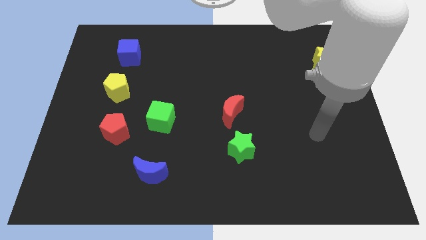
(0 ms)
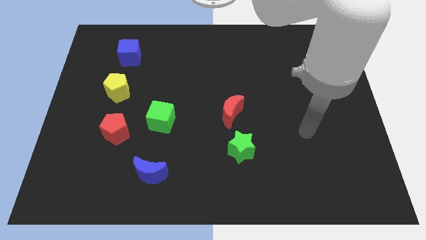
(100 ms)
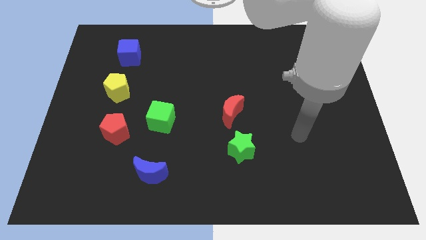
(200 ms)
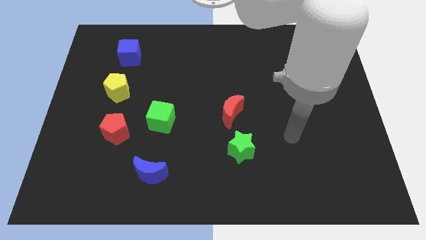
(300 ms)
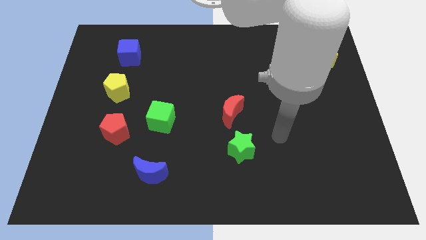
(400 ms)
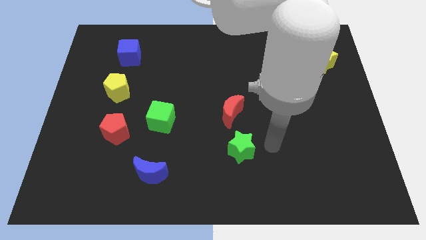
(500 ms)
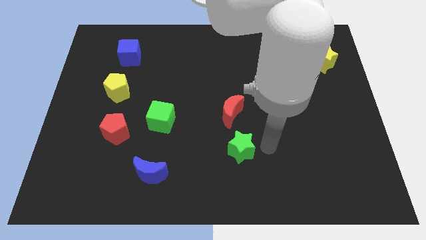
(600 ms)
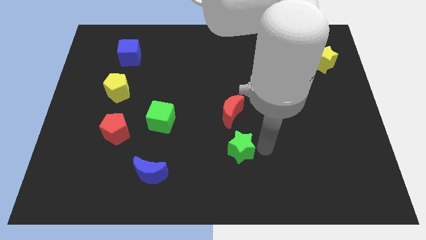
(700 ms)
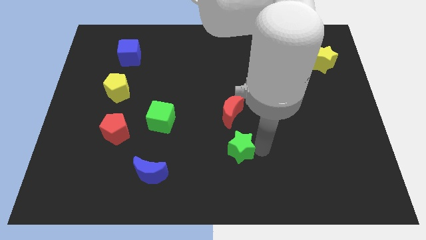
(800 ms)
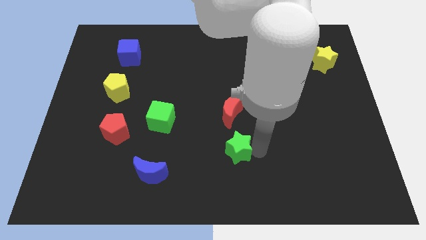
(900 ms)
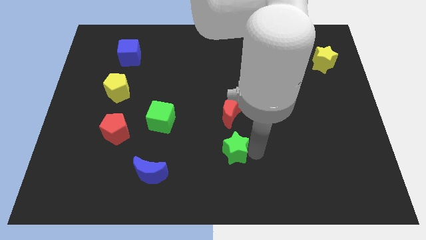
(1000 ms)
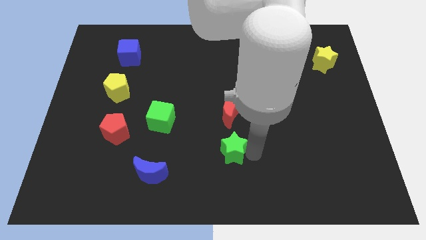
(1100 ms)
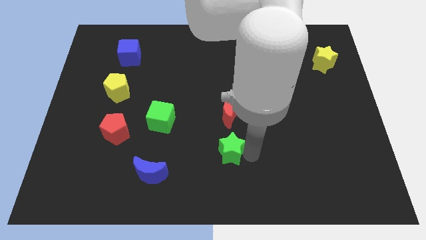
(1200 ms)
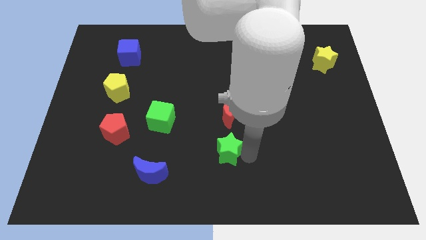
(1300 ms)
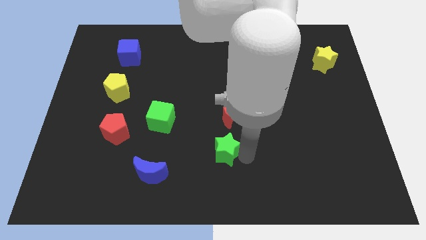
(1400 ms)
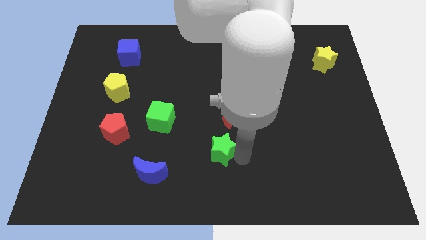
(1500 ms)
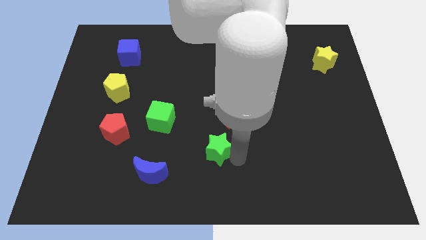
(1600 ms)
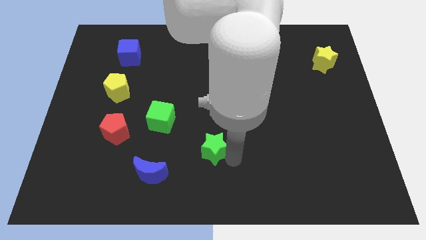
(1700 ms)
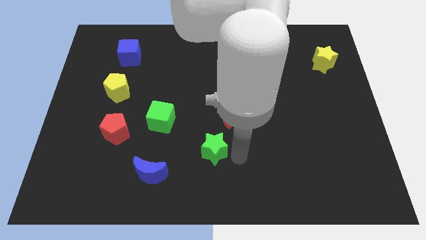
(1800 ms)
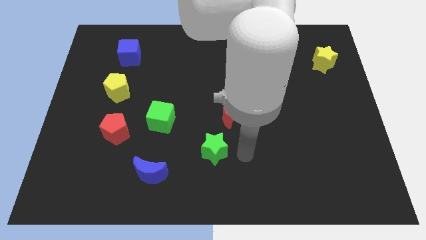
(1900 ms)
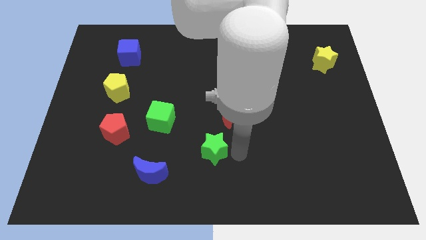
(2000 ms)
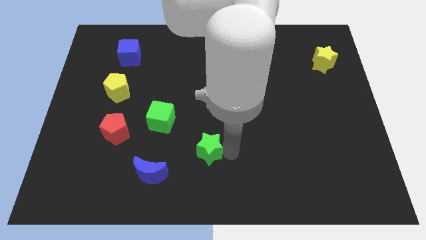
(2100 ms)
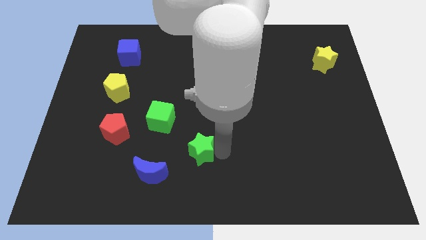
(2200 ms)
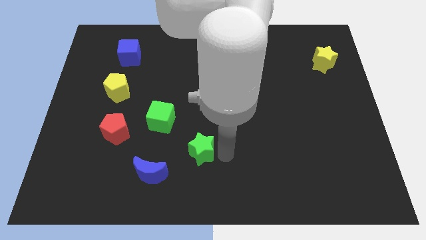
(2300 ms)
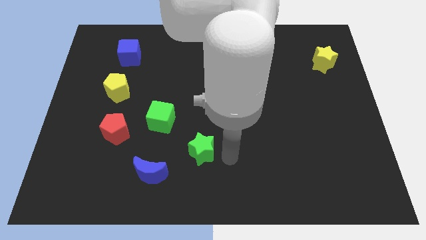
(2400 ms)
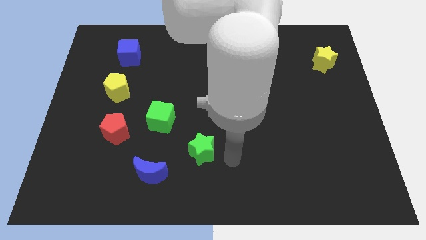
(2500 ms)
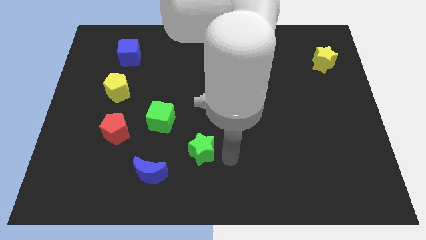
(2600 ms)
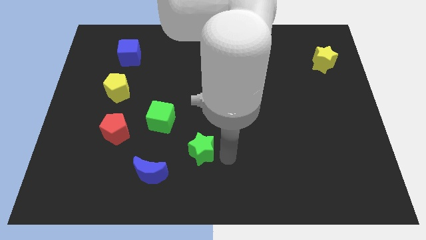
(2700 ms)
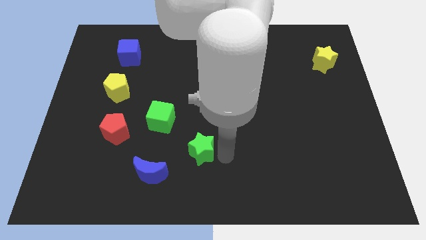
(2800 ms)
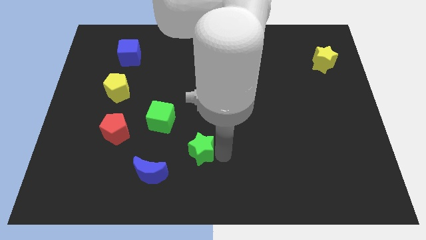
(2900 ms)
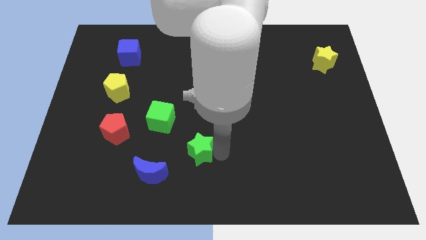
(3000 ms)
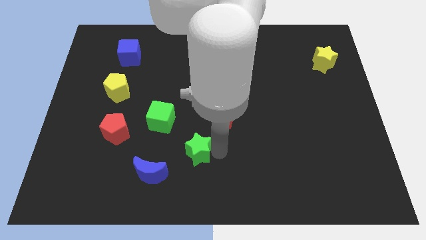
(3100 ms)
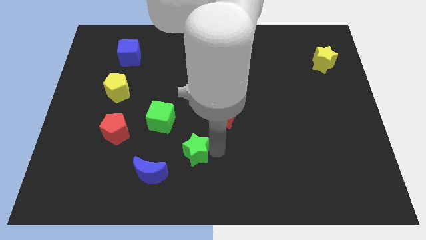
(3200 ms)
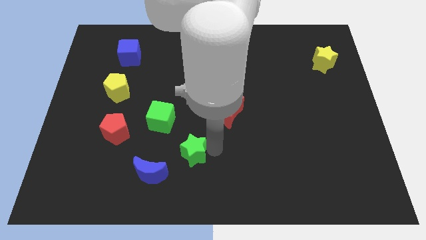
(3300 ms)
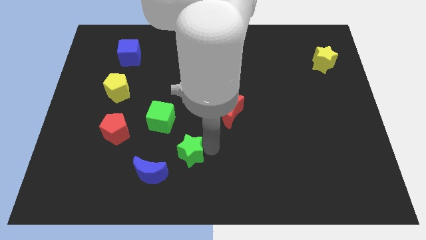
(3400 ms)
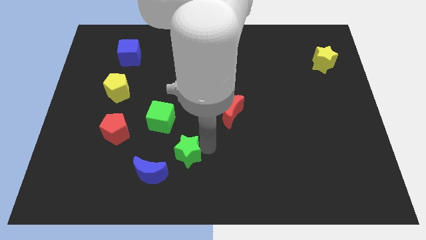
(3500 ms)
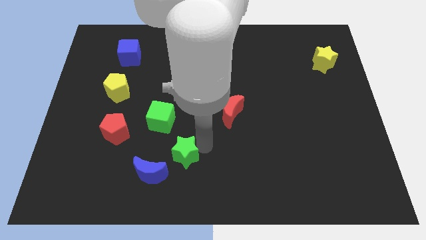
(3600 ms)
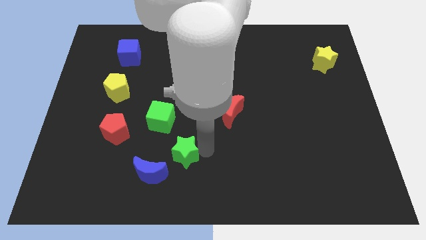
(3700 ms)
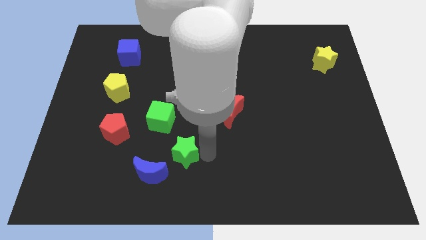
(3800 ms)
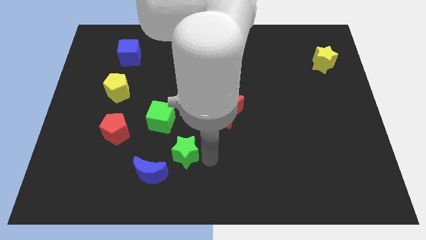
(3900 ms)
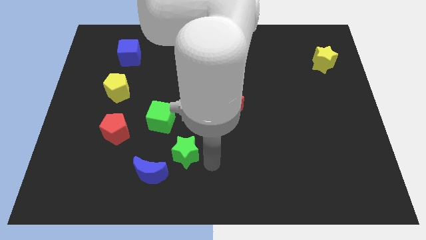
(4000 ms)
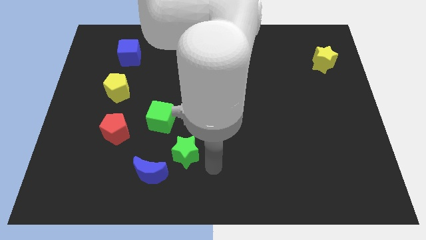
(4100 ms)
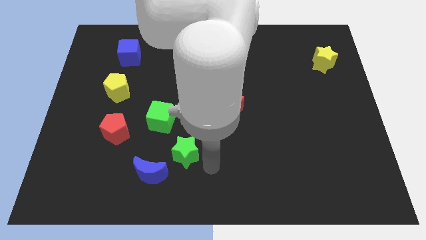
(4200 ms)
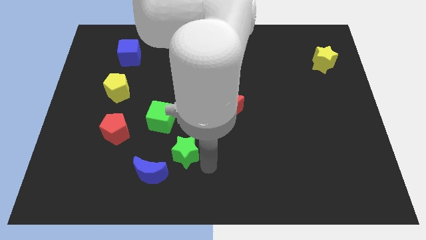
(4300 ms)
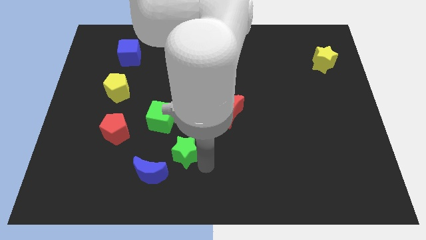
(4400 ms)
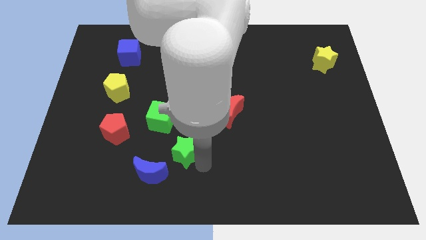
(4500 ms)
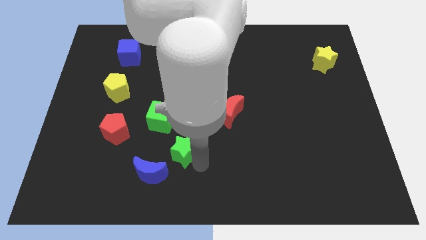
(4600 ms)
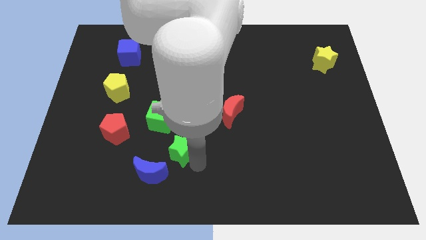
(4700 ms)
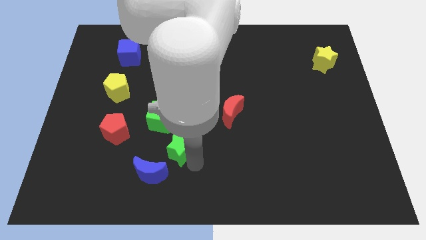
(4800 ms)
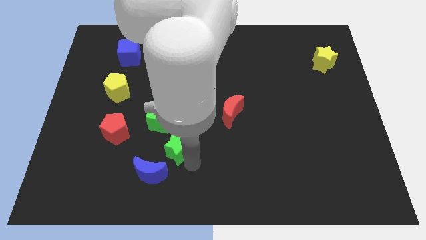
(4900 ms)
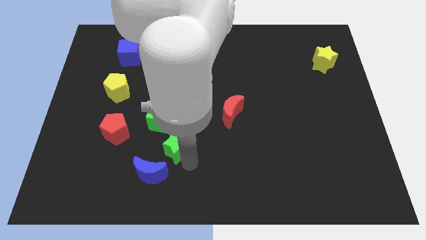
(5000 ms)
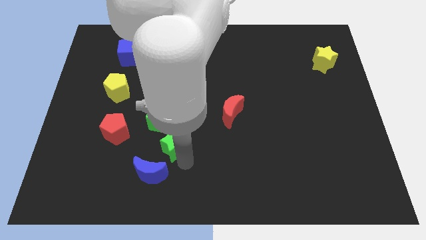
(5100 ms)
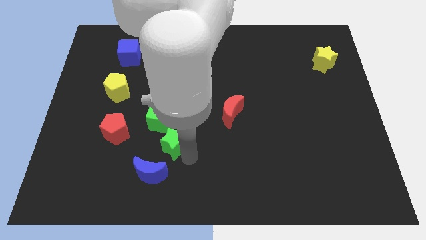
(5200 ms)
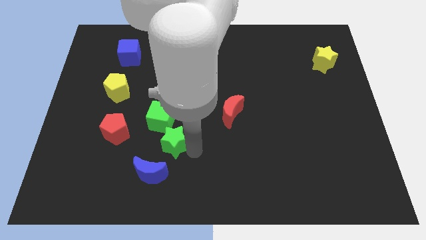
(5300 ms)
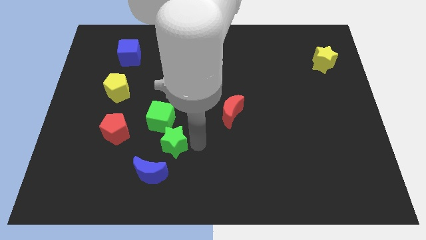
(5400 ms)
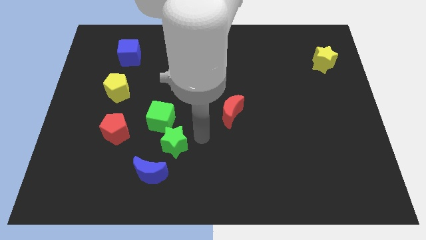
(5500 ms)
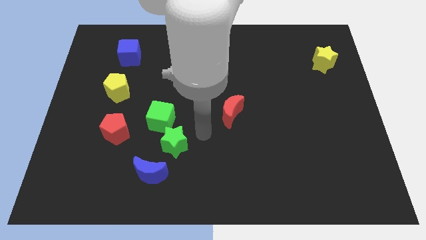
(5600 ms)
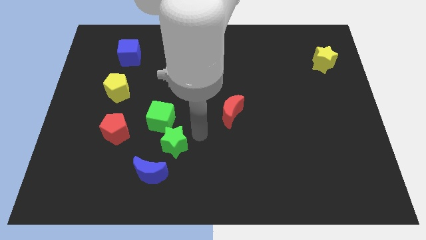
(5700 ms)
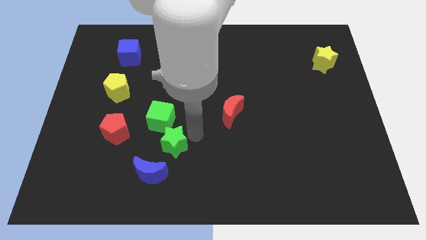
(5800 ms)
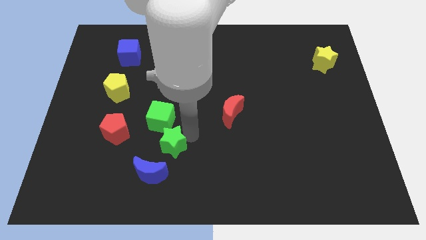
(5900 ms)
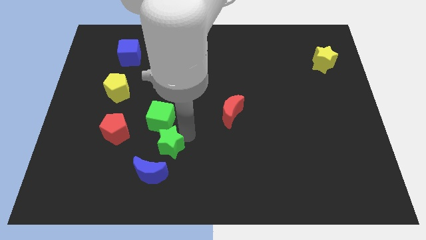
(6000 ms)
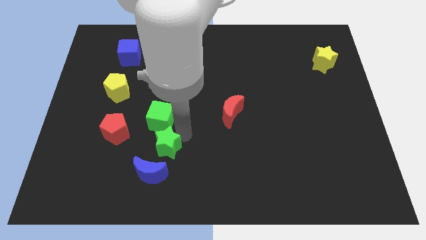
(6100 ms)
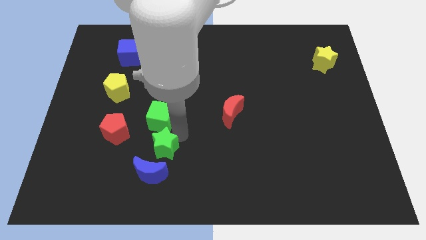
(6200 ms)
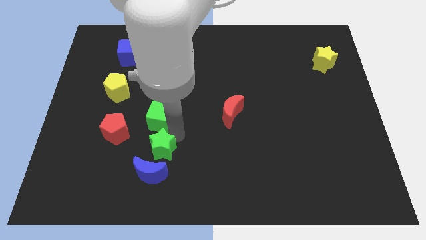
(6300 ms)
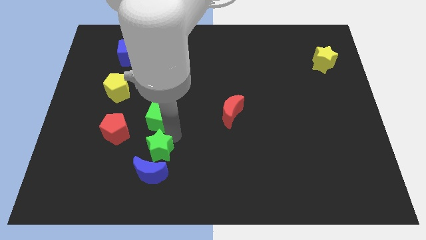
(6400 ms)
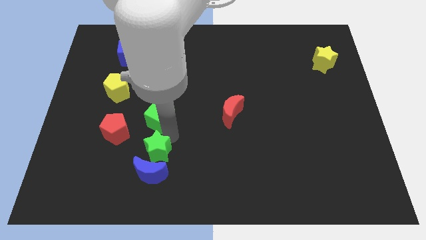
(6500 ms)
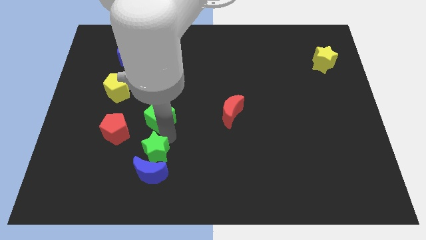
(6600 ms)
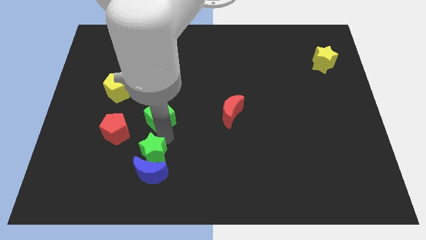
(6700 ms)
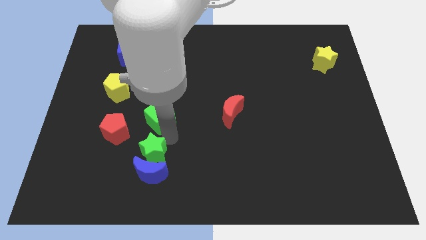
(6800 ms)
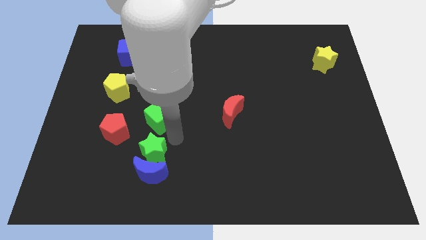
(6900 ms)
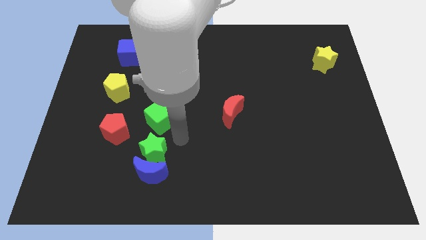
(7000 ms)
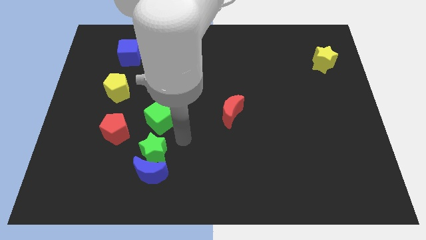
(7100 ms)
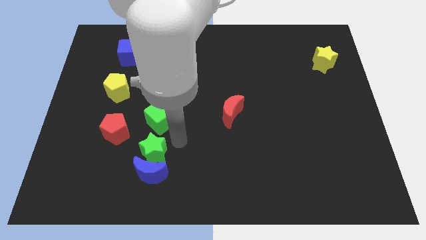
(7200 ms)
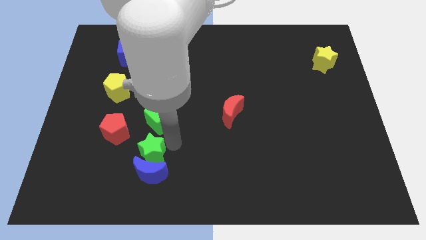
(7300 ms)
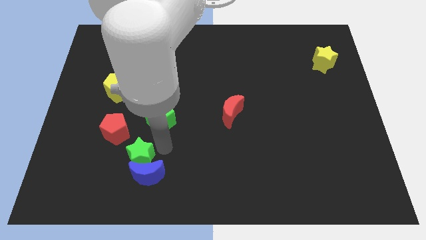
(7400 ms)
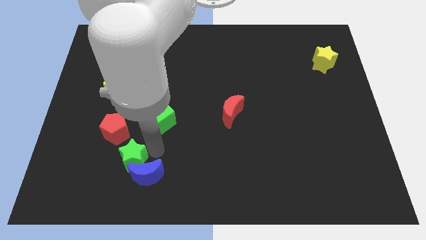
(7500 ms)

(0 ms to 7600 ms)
slide the green star to the bottom of the red pentagon
